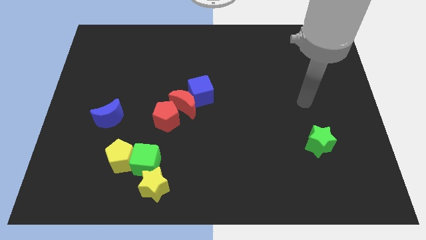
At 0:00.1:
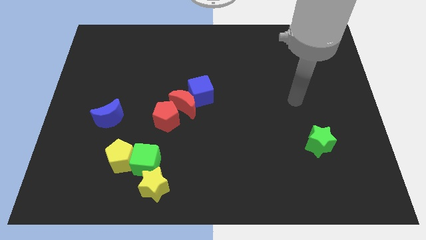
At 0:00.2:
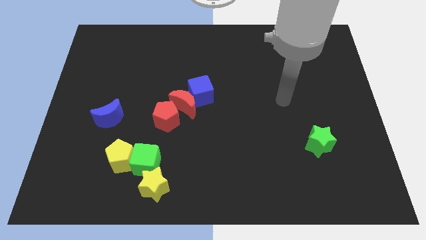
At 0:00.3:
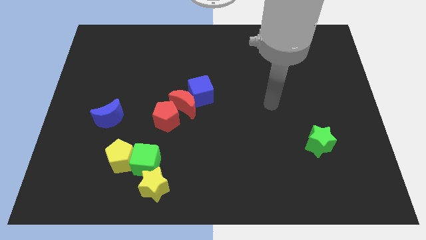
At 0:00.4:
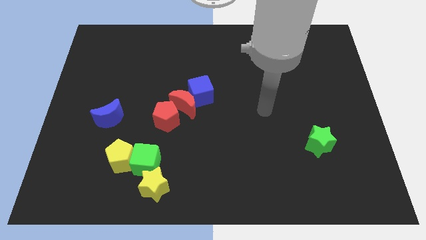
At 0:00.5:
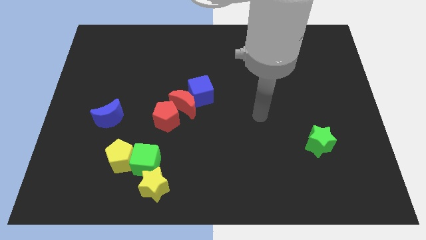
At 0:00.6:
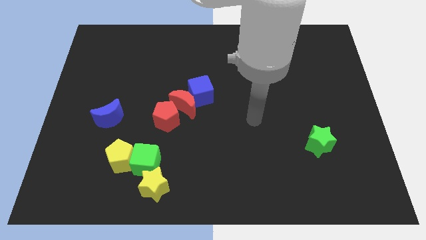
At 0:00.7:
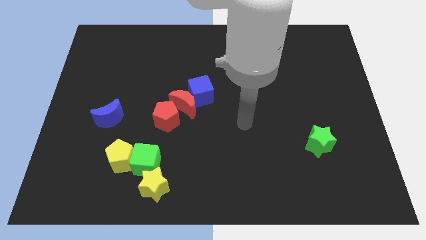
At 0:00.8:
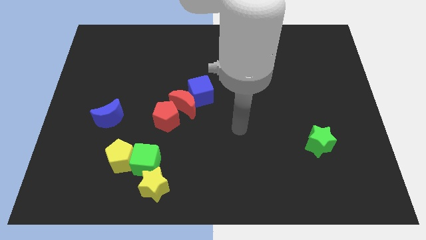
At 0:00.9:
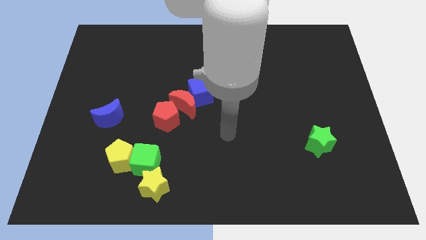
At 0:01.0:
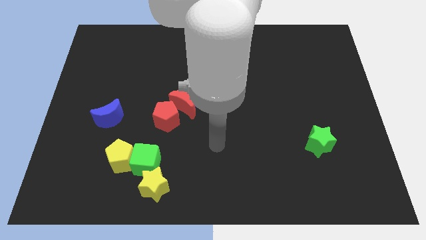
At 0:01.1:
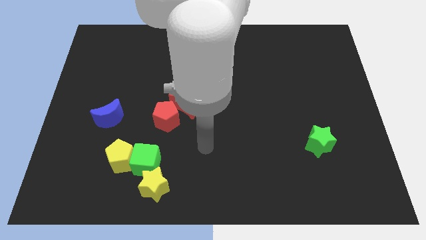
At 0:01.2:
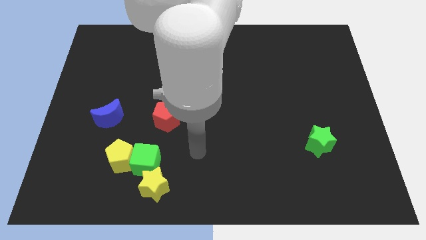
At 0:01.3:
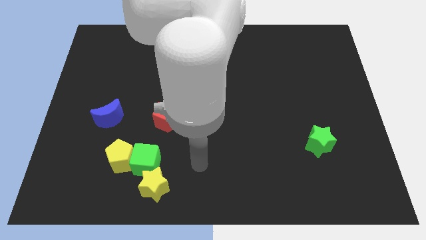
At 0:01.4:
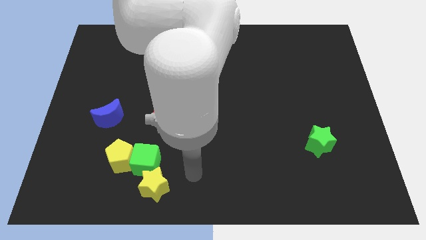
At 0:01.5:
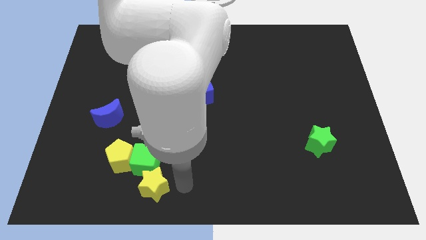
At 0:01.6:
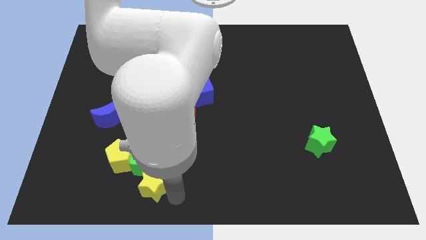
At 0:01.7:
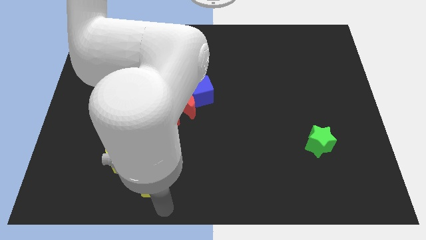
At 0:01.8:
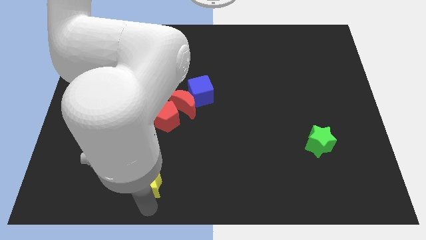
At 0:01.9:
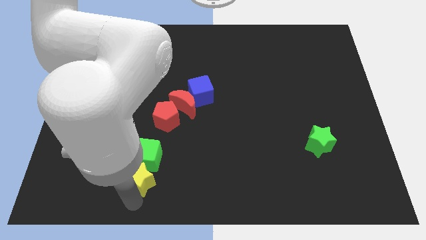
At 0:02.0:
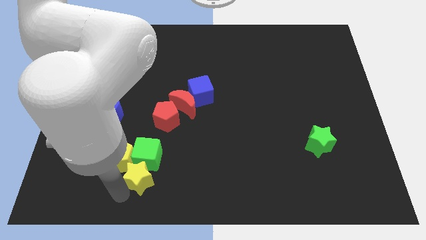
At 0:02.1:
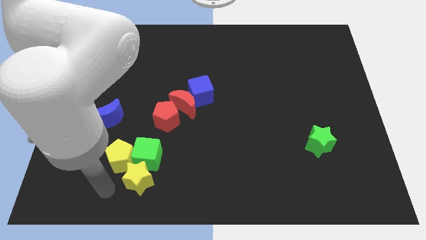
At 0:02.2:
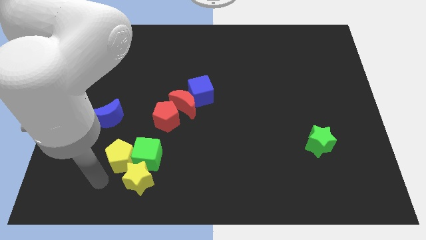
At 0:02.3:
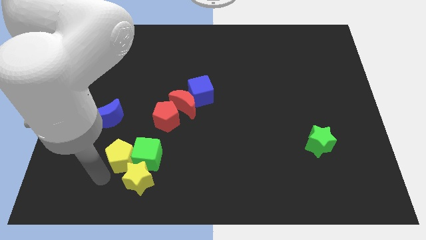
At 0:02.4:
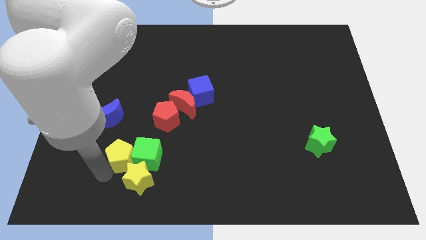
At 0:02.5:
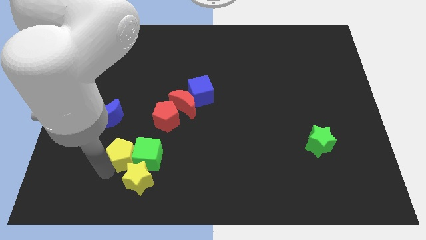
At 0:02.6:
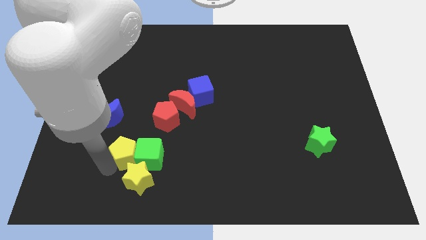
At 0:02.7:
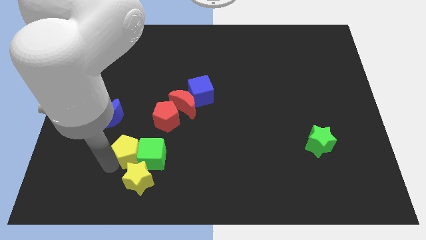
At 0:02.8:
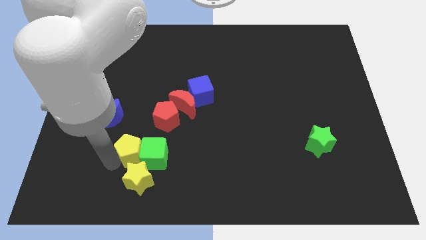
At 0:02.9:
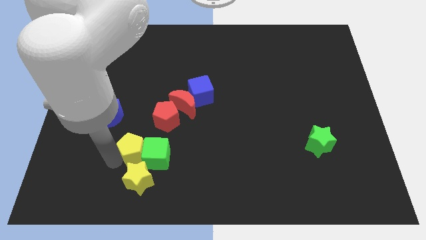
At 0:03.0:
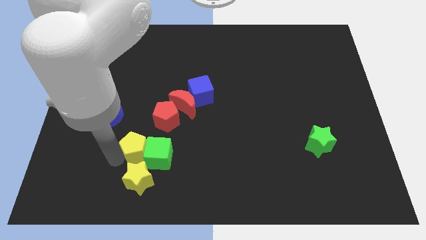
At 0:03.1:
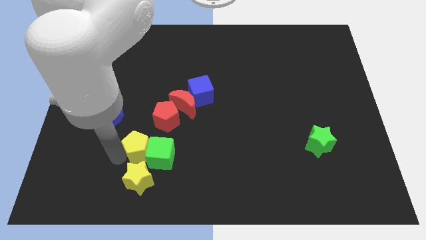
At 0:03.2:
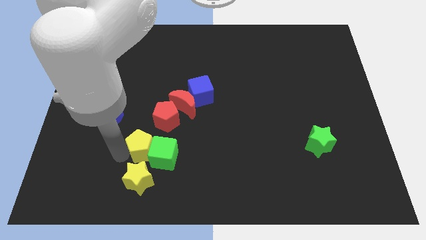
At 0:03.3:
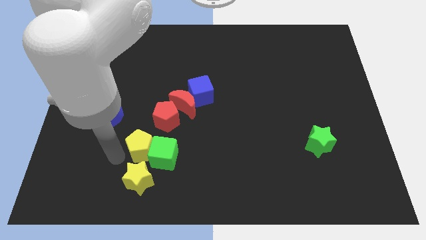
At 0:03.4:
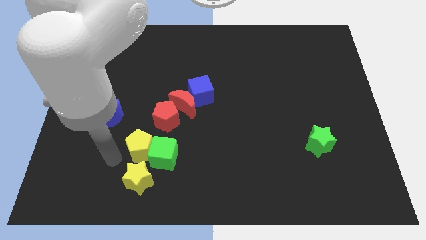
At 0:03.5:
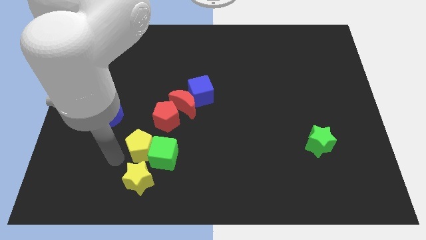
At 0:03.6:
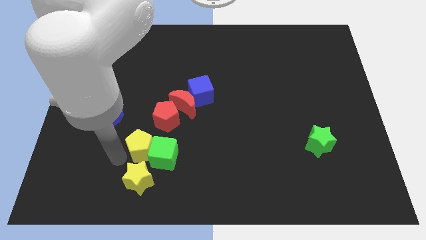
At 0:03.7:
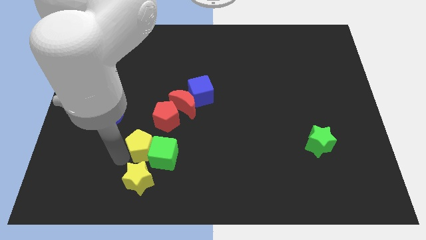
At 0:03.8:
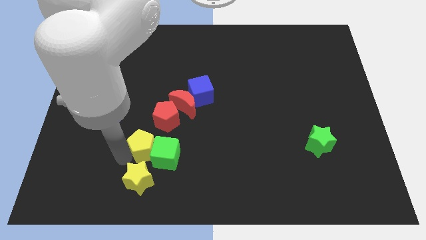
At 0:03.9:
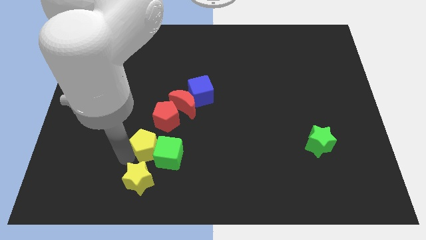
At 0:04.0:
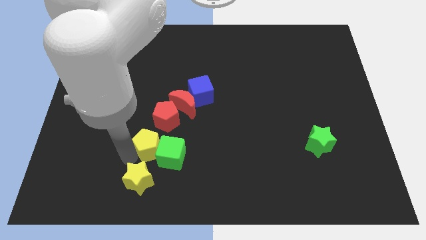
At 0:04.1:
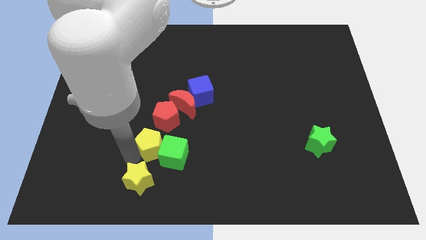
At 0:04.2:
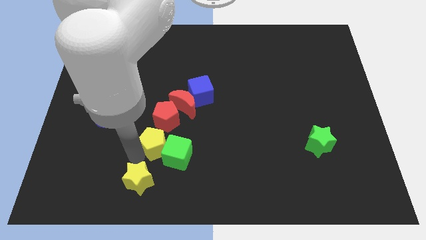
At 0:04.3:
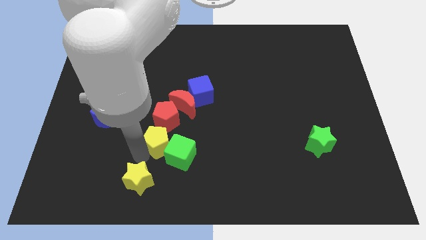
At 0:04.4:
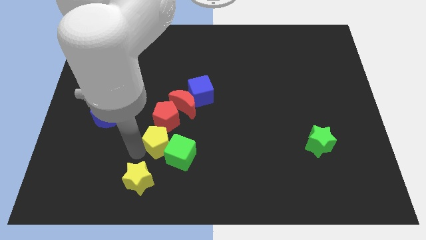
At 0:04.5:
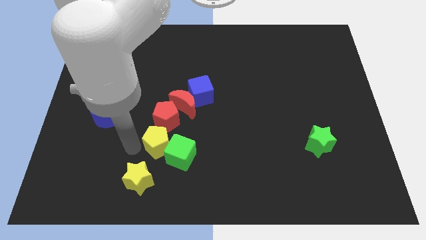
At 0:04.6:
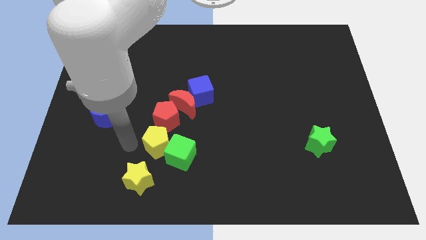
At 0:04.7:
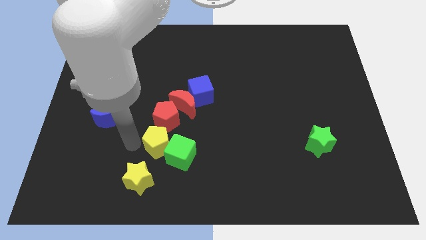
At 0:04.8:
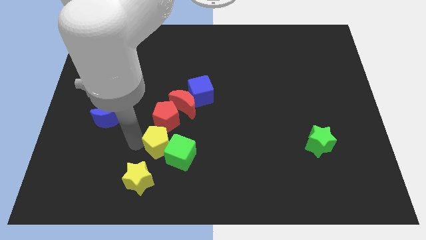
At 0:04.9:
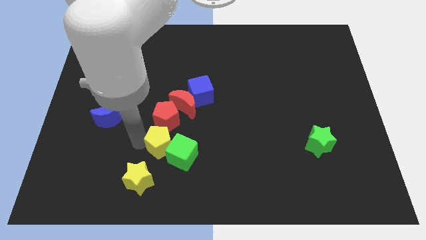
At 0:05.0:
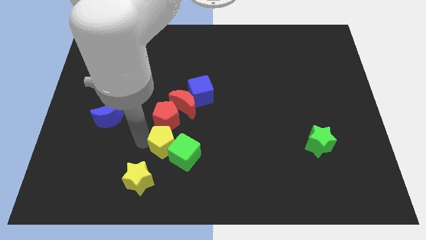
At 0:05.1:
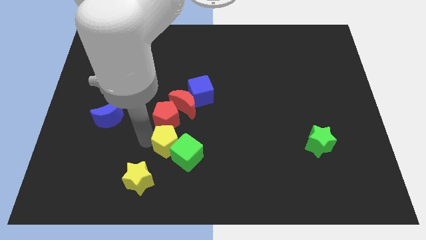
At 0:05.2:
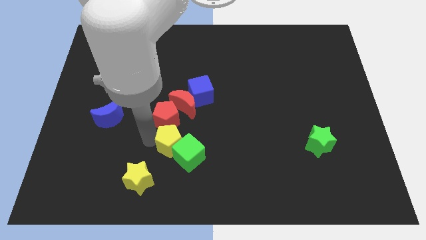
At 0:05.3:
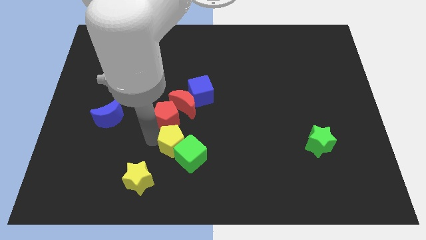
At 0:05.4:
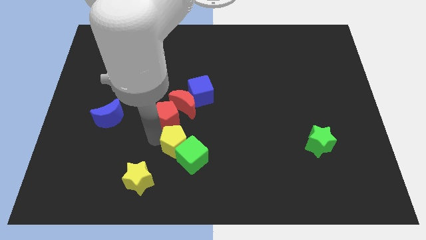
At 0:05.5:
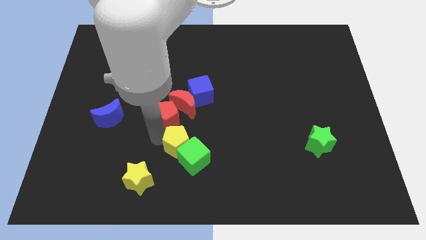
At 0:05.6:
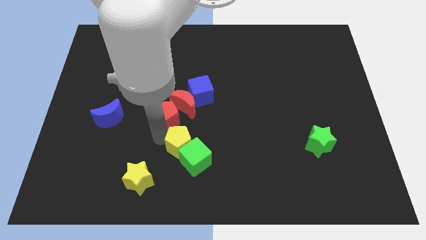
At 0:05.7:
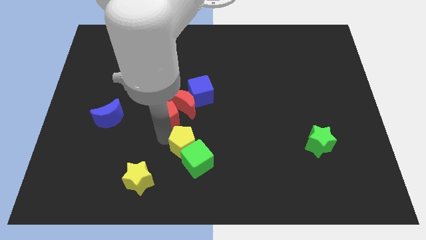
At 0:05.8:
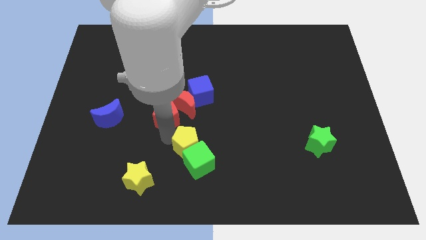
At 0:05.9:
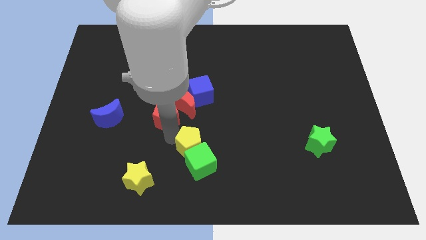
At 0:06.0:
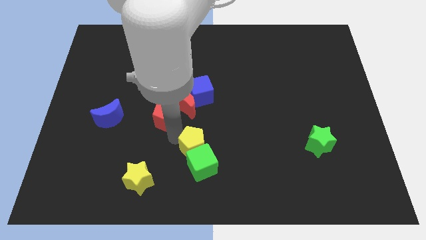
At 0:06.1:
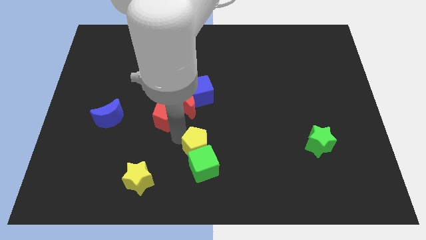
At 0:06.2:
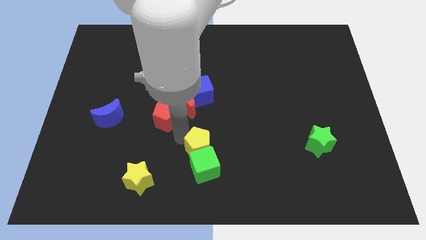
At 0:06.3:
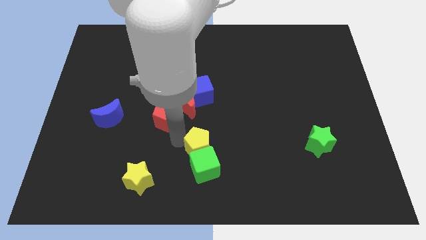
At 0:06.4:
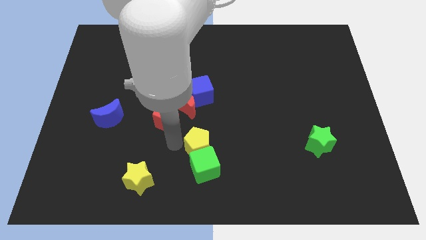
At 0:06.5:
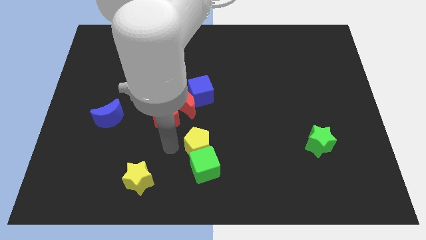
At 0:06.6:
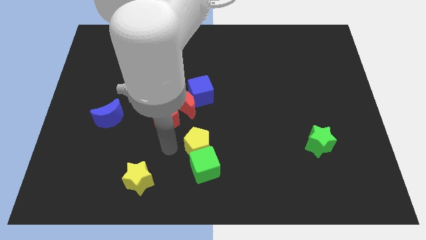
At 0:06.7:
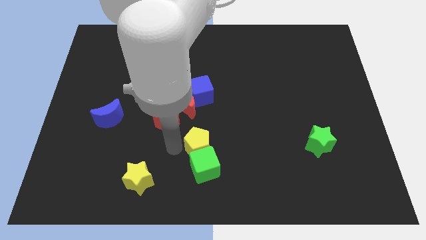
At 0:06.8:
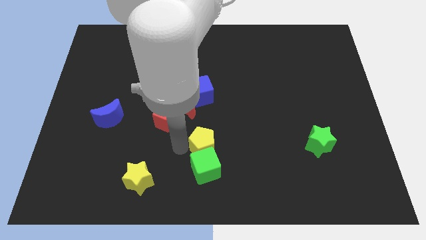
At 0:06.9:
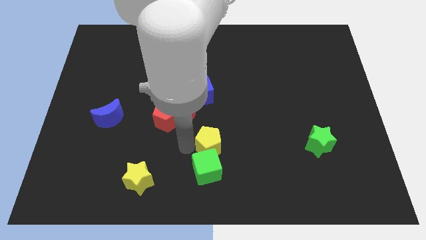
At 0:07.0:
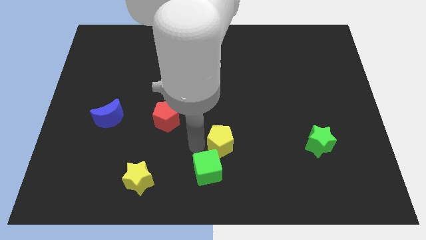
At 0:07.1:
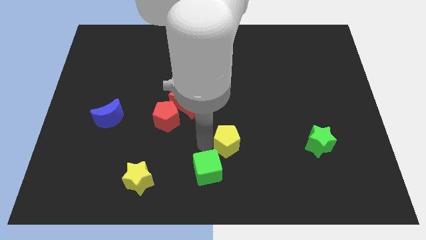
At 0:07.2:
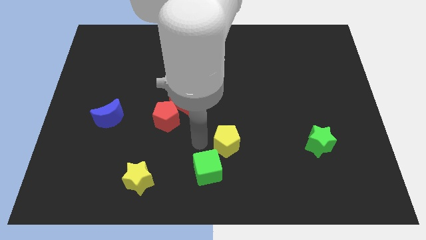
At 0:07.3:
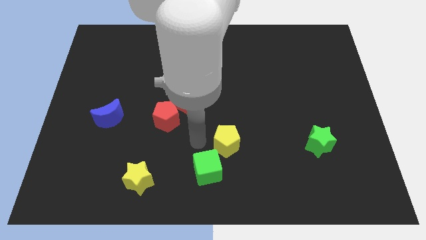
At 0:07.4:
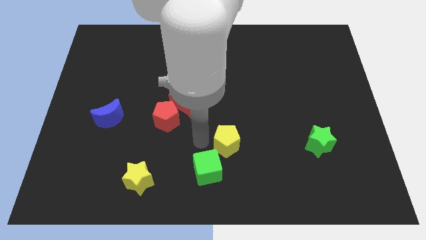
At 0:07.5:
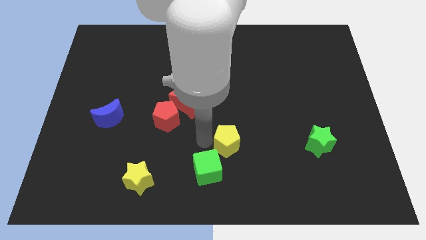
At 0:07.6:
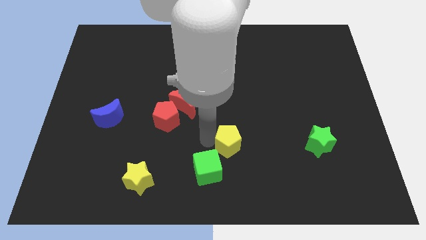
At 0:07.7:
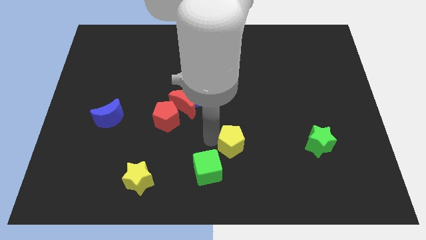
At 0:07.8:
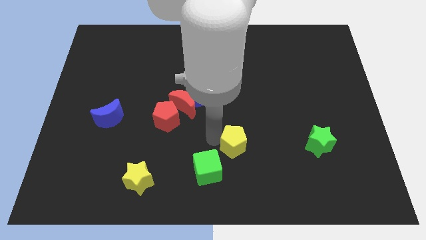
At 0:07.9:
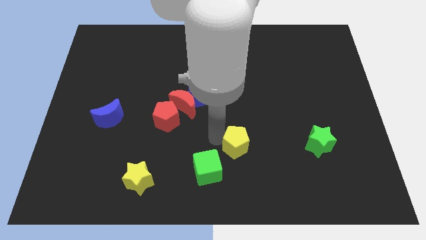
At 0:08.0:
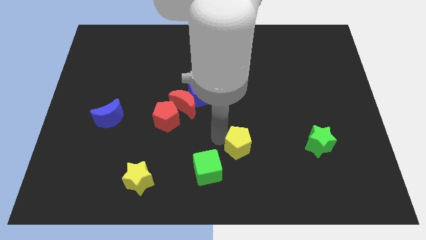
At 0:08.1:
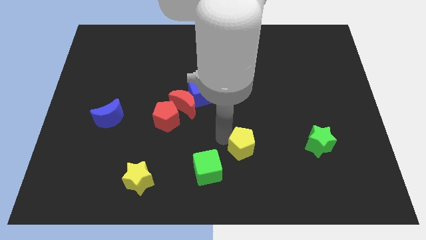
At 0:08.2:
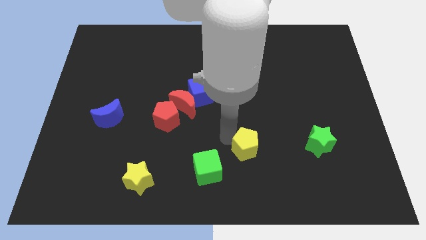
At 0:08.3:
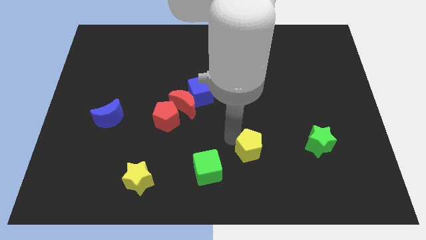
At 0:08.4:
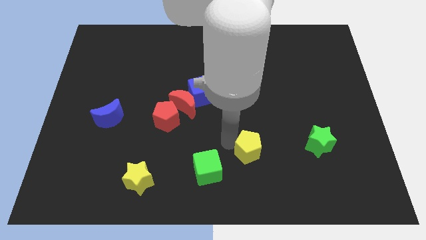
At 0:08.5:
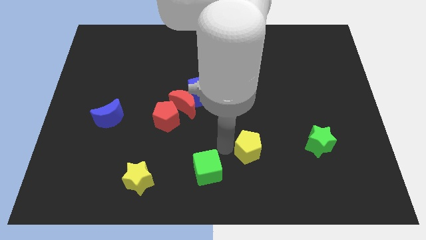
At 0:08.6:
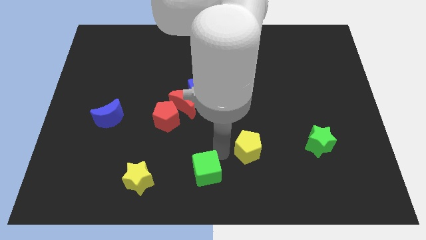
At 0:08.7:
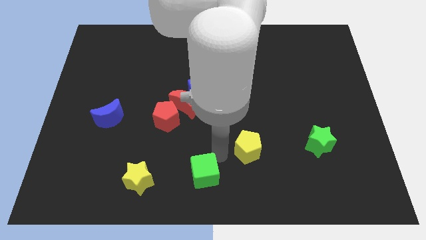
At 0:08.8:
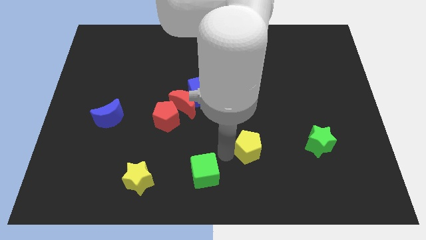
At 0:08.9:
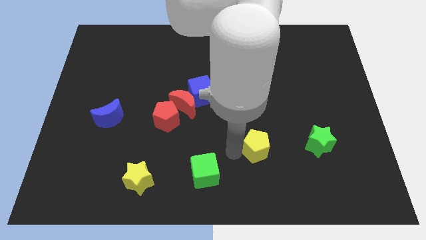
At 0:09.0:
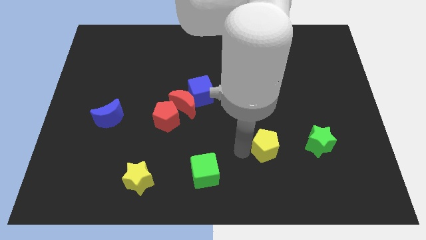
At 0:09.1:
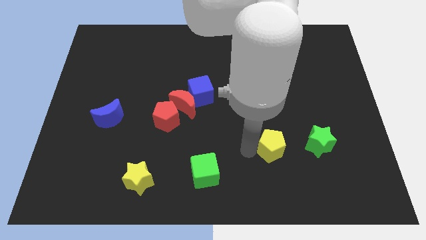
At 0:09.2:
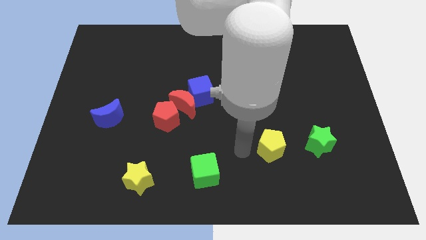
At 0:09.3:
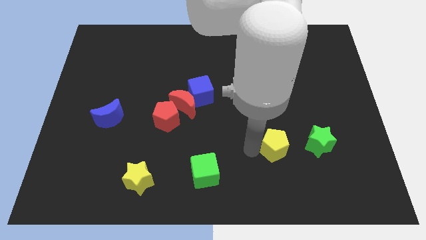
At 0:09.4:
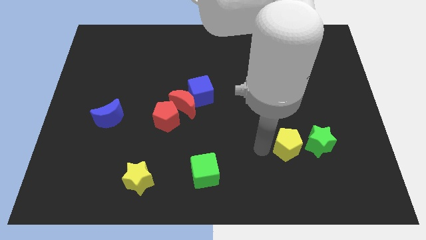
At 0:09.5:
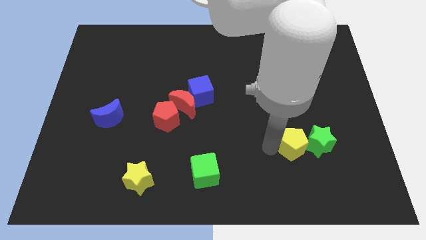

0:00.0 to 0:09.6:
slide the yellow pentagon close to the green star
